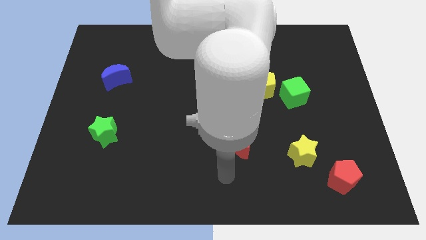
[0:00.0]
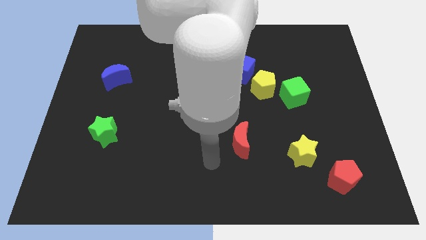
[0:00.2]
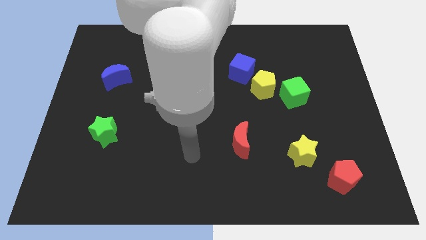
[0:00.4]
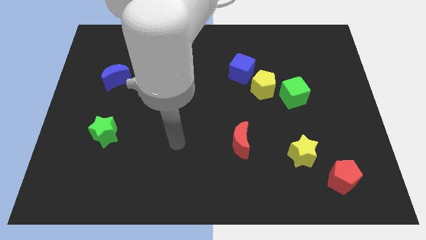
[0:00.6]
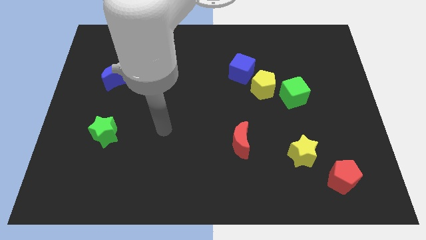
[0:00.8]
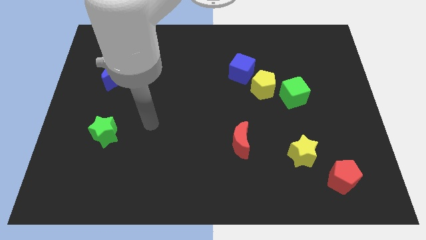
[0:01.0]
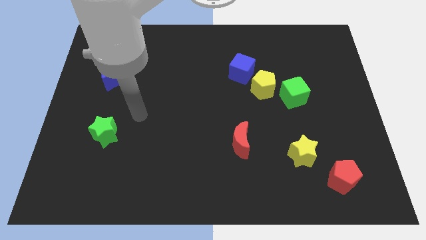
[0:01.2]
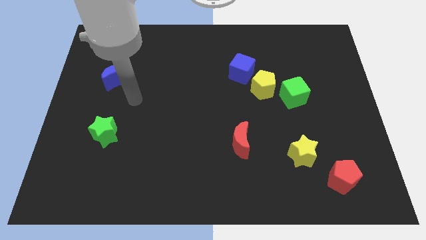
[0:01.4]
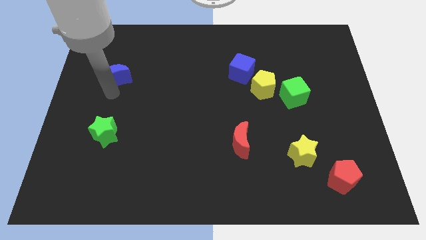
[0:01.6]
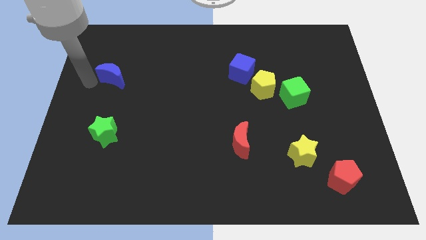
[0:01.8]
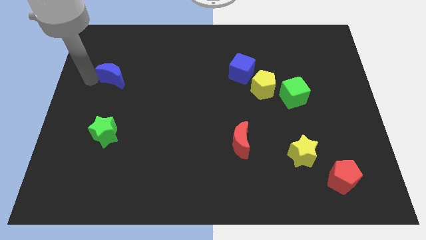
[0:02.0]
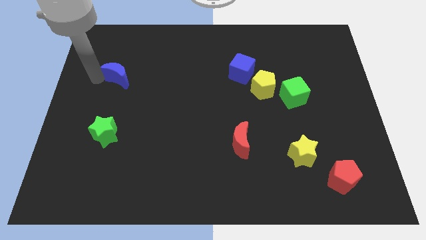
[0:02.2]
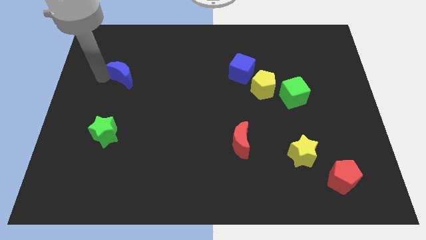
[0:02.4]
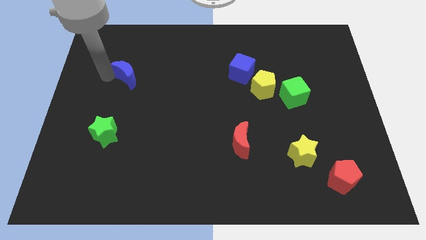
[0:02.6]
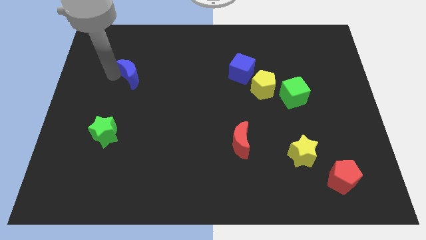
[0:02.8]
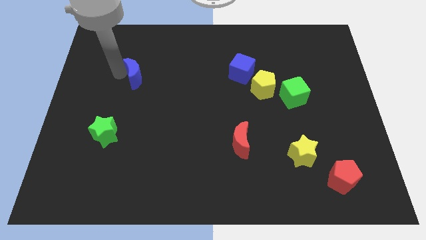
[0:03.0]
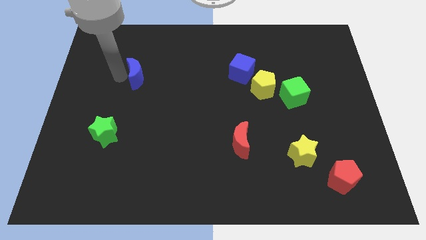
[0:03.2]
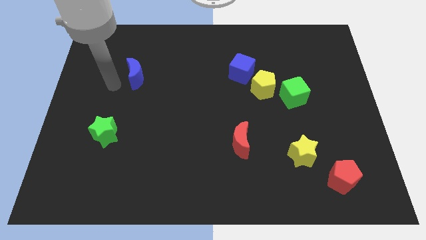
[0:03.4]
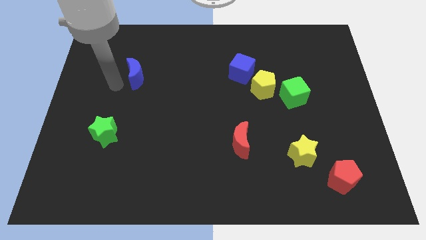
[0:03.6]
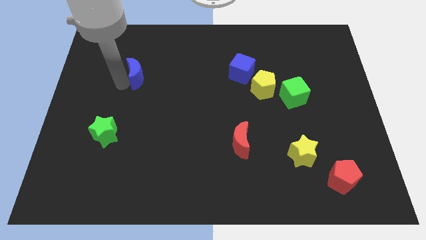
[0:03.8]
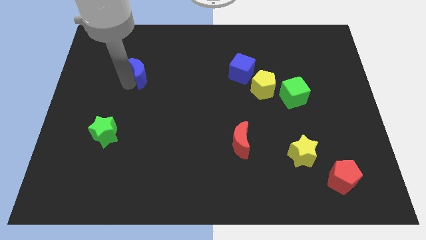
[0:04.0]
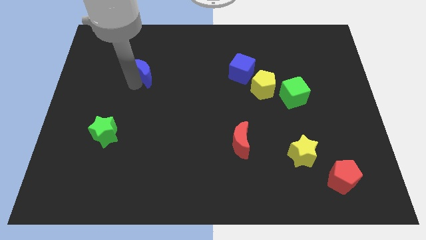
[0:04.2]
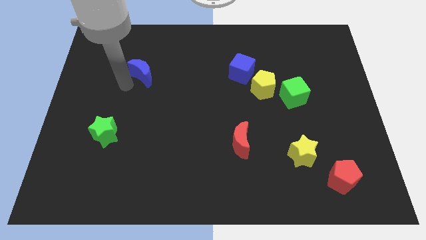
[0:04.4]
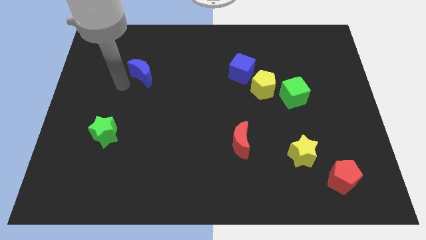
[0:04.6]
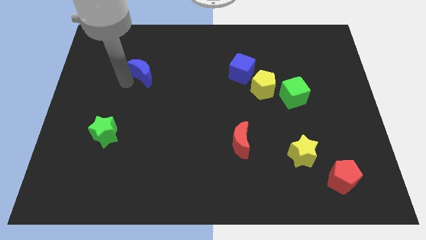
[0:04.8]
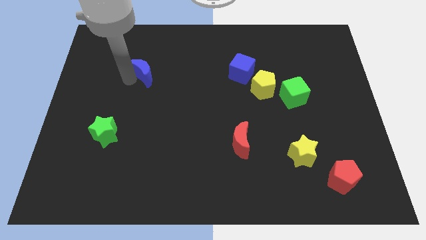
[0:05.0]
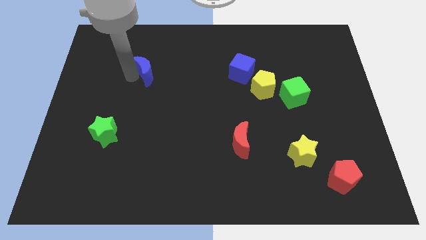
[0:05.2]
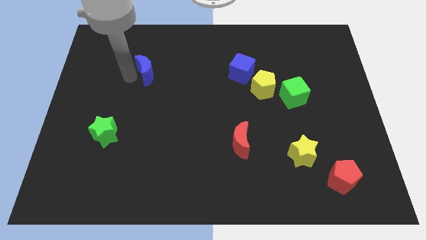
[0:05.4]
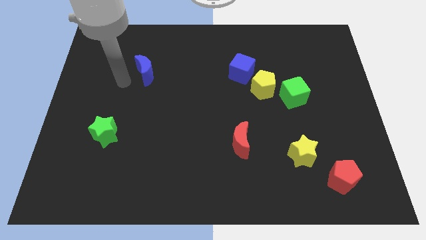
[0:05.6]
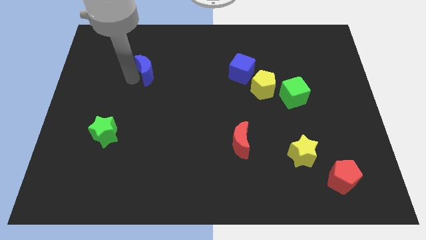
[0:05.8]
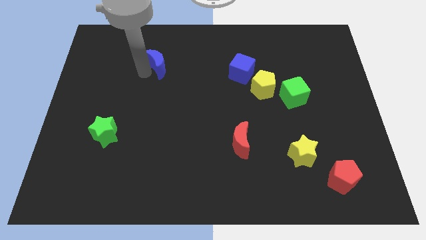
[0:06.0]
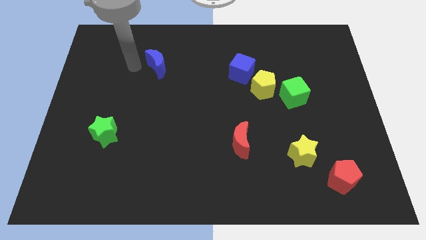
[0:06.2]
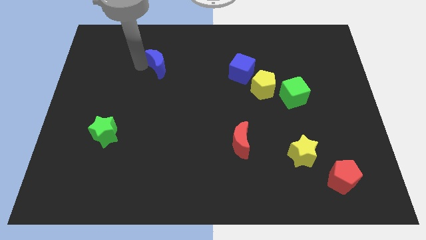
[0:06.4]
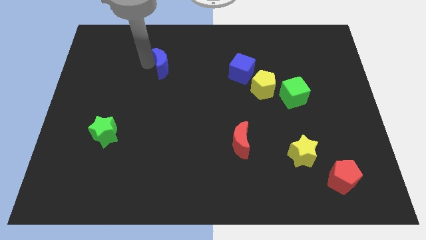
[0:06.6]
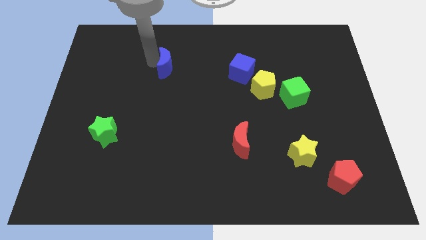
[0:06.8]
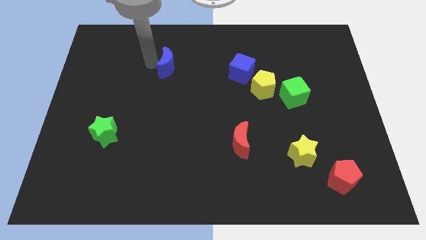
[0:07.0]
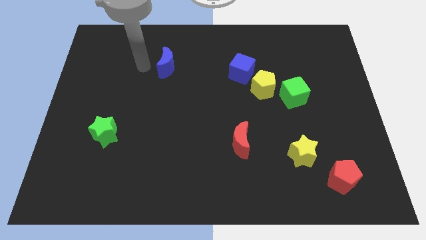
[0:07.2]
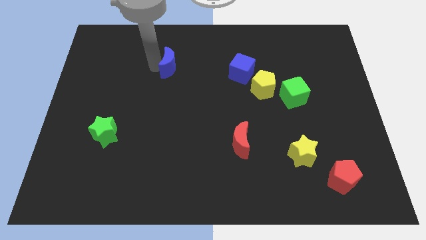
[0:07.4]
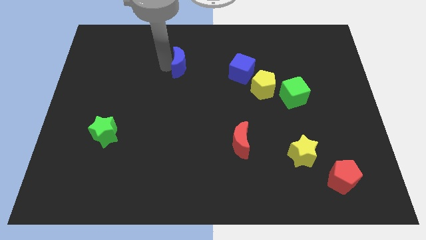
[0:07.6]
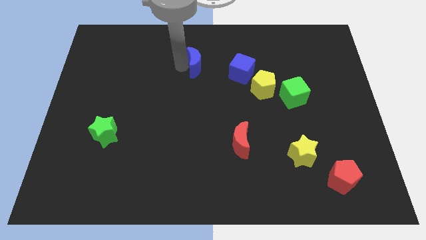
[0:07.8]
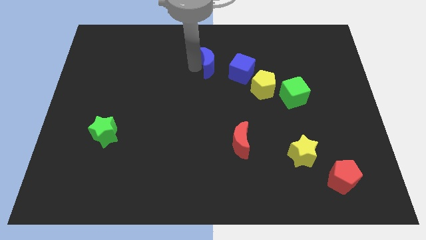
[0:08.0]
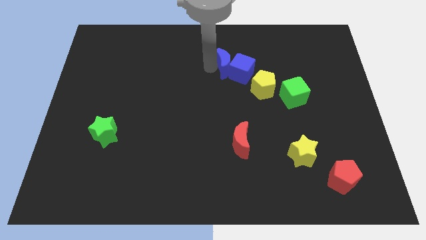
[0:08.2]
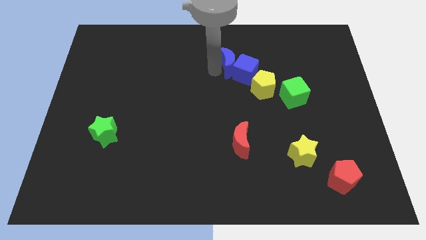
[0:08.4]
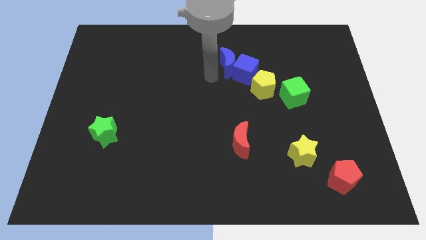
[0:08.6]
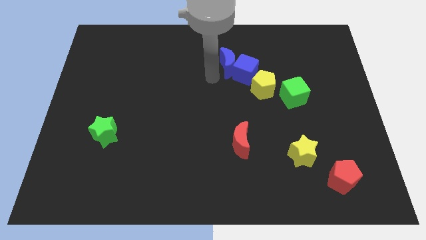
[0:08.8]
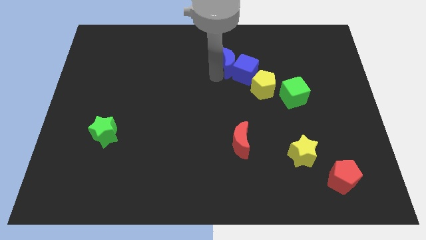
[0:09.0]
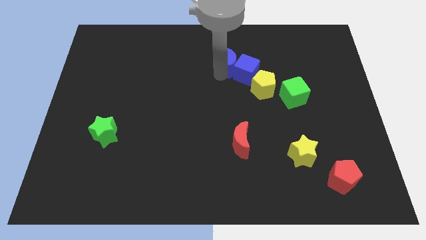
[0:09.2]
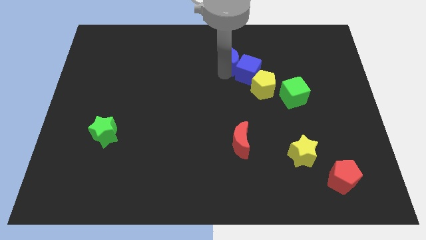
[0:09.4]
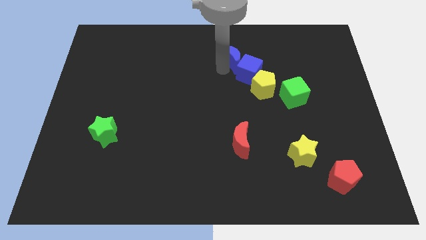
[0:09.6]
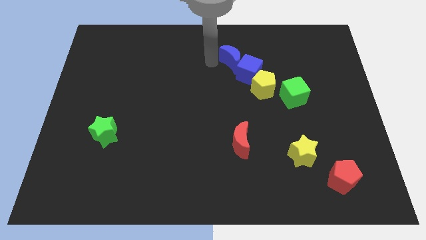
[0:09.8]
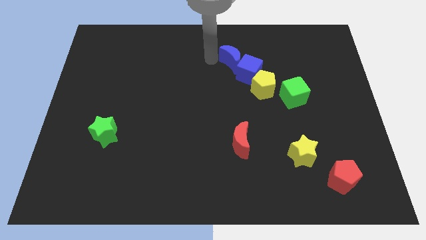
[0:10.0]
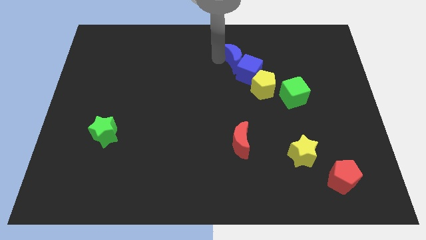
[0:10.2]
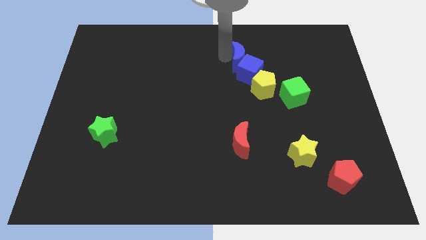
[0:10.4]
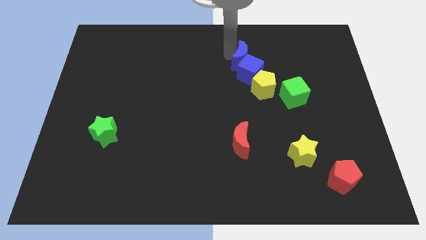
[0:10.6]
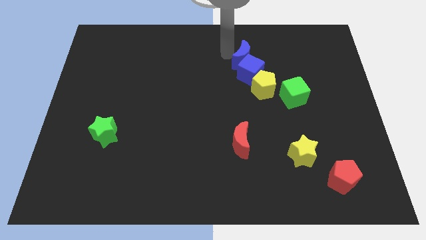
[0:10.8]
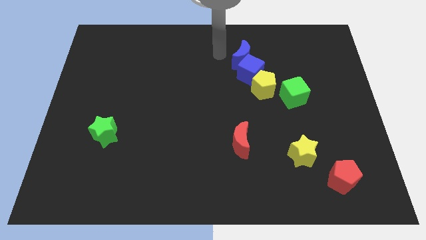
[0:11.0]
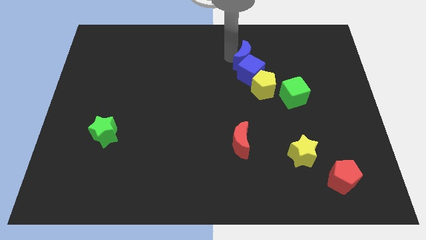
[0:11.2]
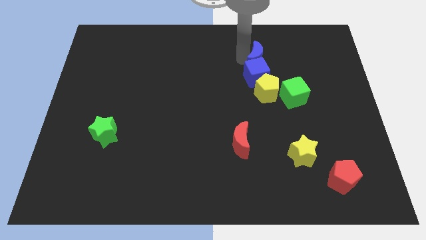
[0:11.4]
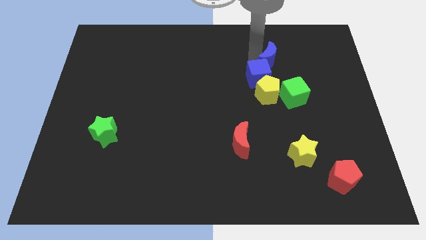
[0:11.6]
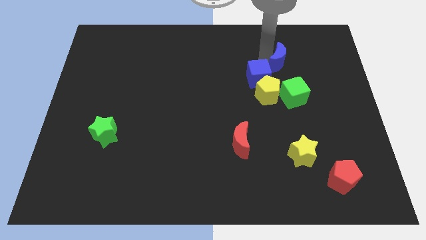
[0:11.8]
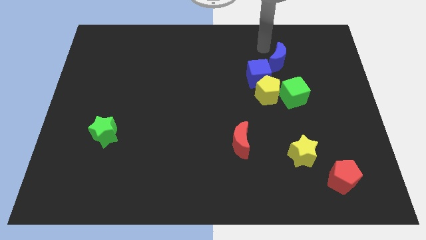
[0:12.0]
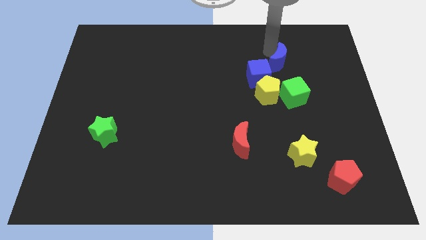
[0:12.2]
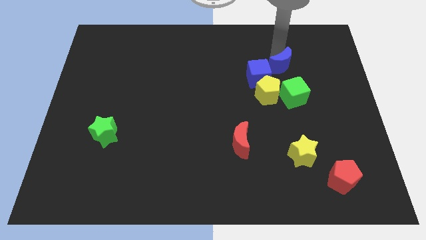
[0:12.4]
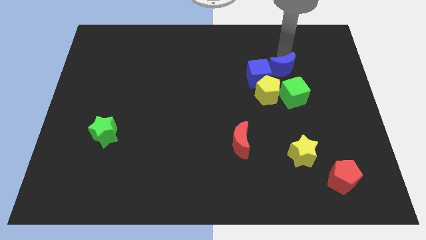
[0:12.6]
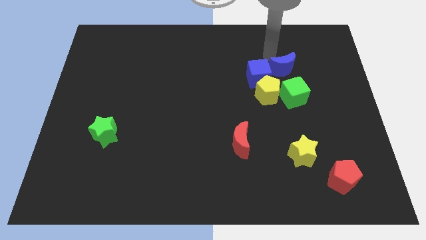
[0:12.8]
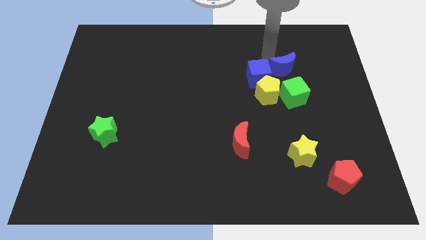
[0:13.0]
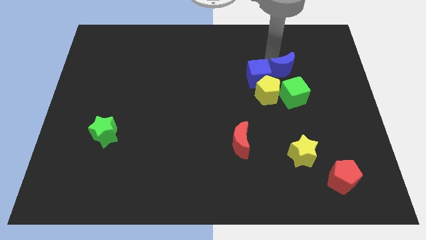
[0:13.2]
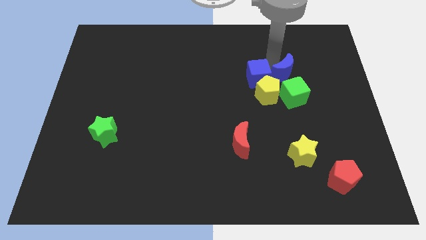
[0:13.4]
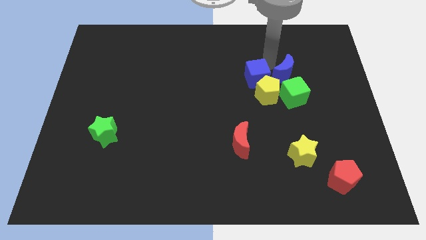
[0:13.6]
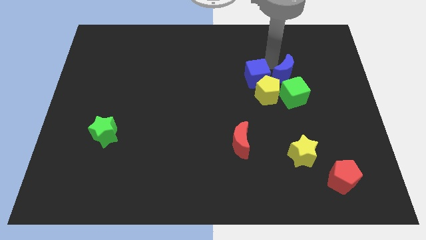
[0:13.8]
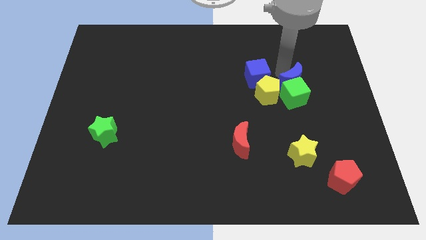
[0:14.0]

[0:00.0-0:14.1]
slide the blue moon just right of the yellow pentagon

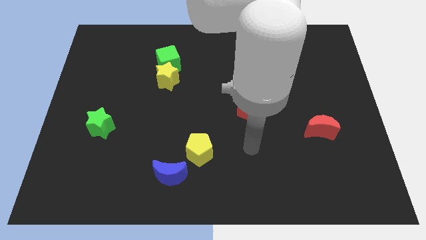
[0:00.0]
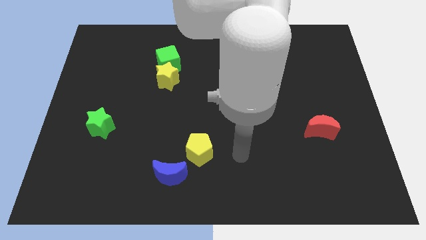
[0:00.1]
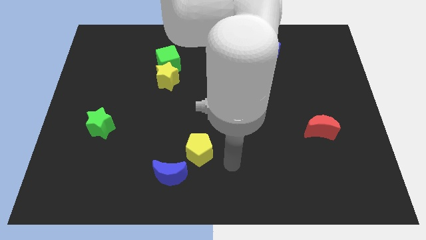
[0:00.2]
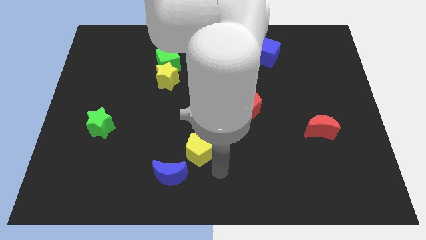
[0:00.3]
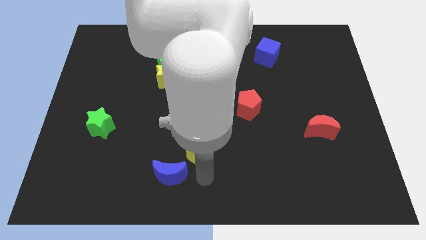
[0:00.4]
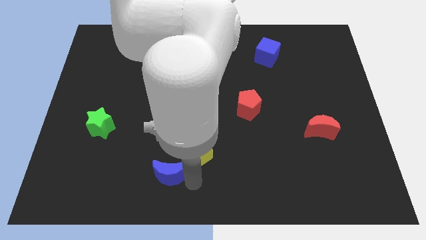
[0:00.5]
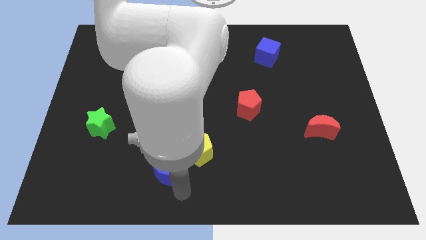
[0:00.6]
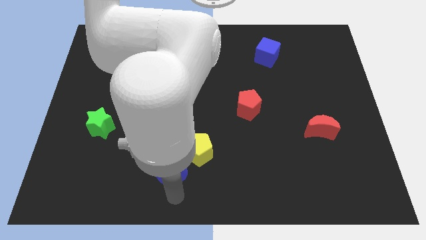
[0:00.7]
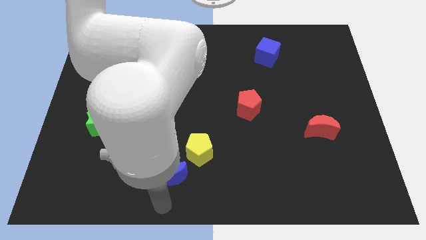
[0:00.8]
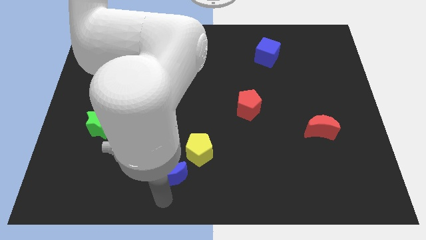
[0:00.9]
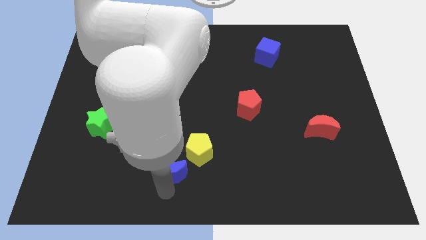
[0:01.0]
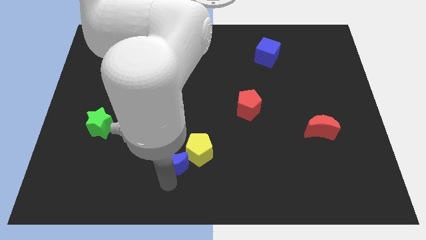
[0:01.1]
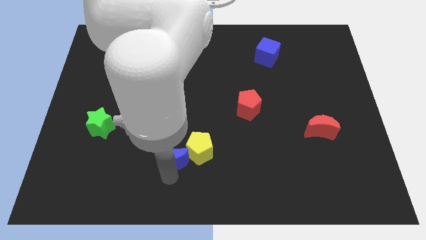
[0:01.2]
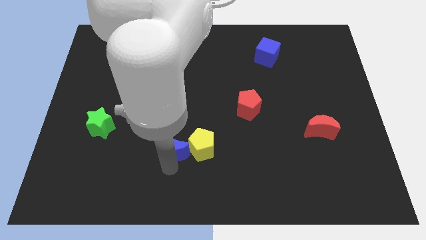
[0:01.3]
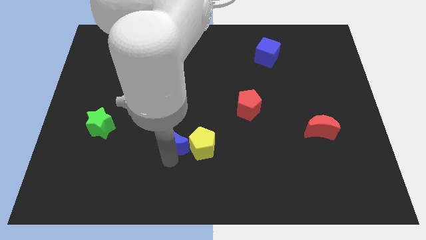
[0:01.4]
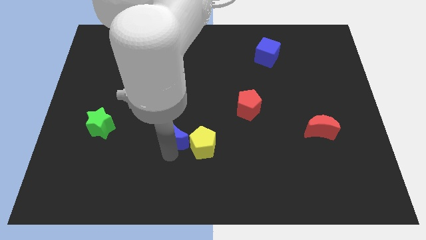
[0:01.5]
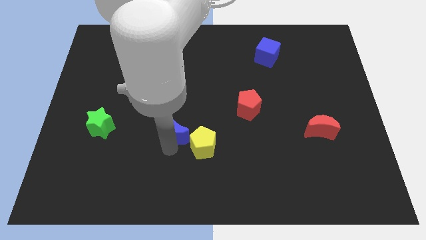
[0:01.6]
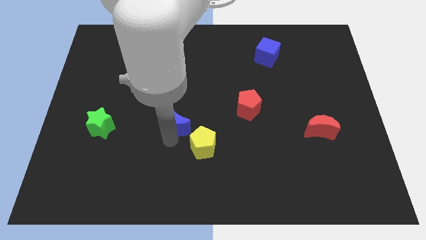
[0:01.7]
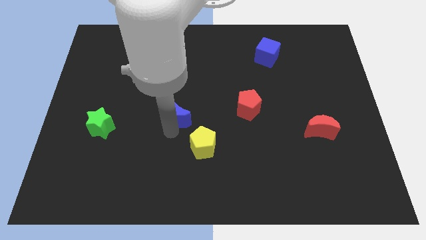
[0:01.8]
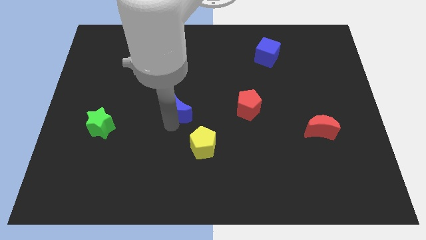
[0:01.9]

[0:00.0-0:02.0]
slide the blue moon to the left of the red pentagon
